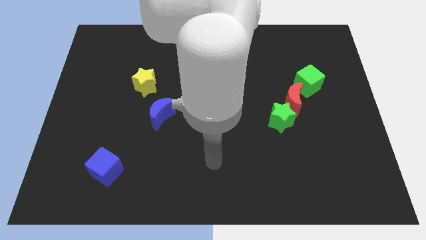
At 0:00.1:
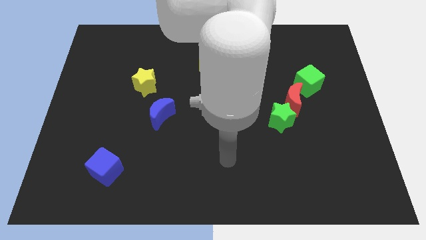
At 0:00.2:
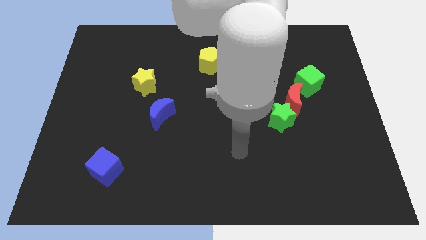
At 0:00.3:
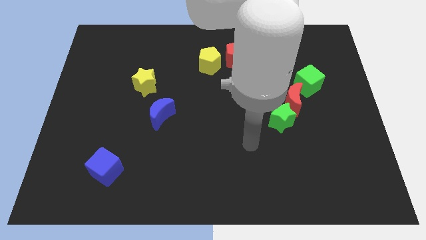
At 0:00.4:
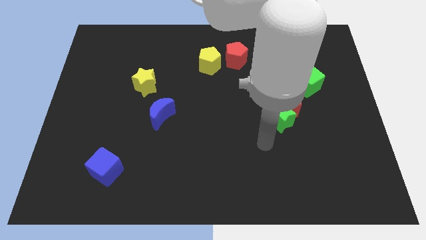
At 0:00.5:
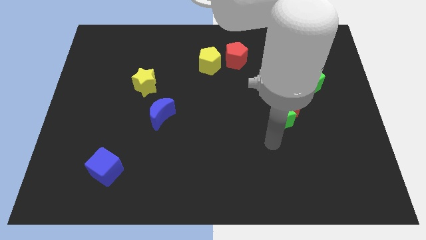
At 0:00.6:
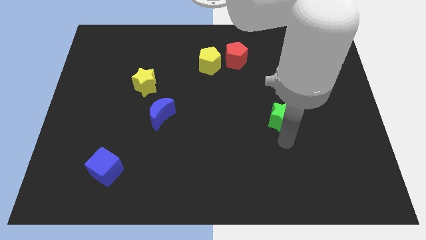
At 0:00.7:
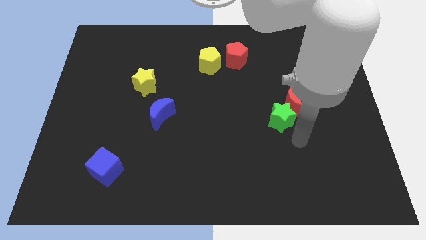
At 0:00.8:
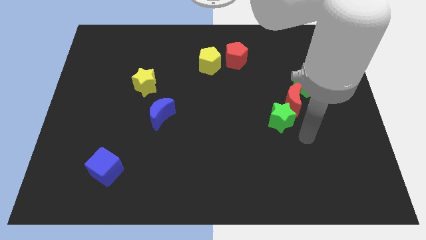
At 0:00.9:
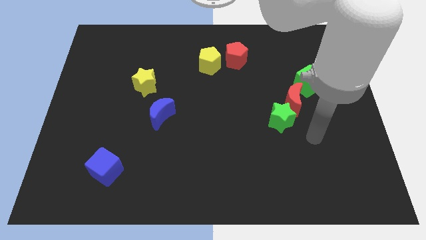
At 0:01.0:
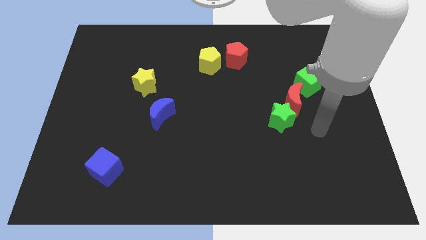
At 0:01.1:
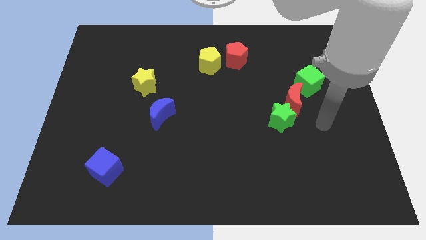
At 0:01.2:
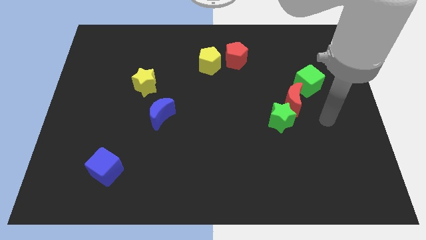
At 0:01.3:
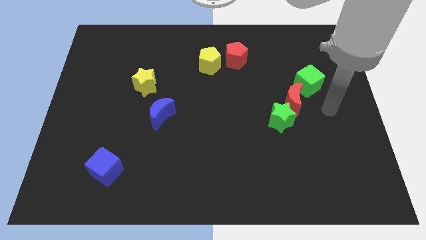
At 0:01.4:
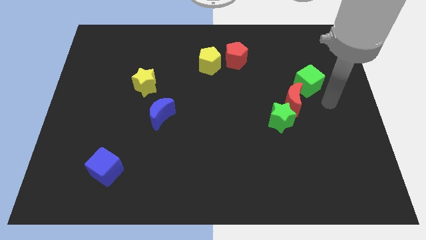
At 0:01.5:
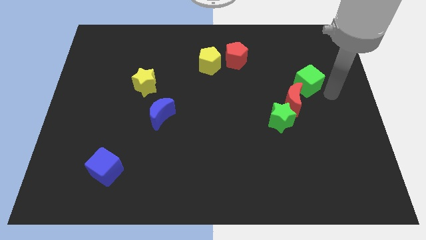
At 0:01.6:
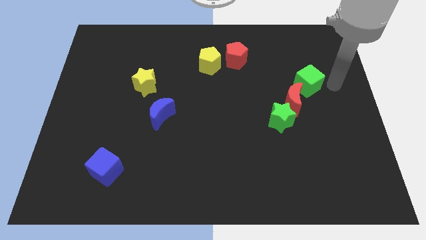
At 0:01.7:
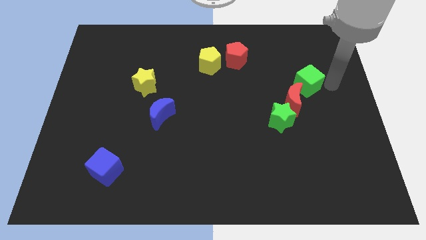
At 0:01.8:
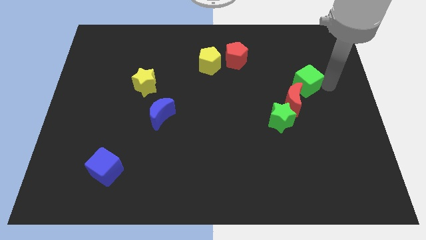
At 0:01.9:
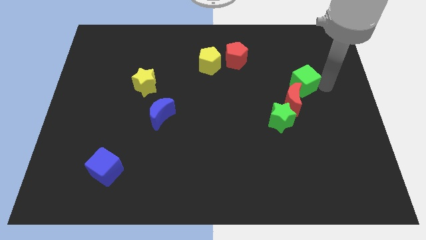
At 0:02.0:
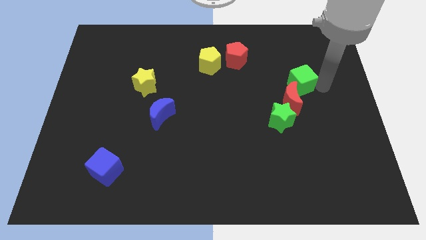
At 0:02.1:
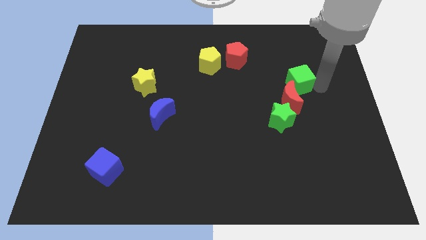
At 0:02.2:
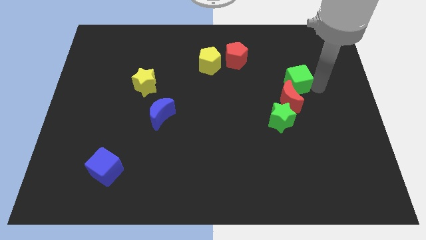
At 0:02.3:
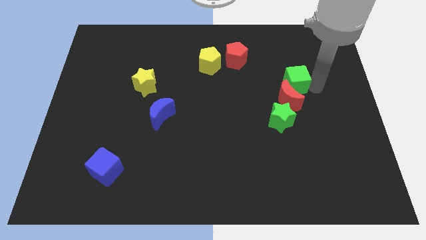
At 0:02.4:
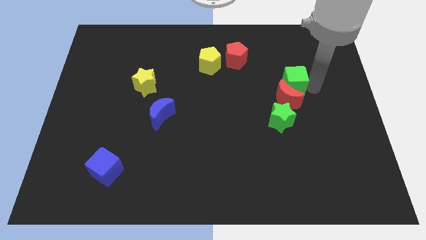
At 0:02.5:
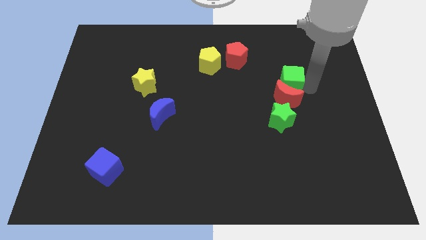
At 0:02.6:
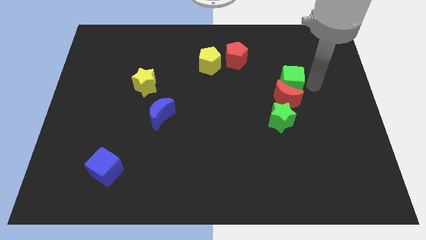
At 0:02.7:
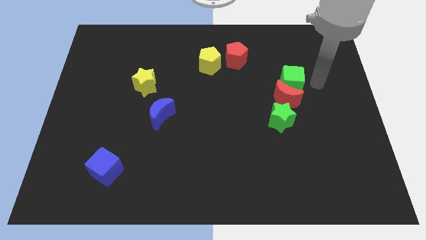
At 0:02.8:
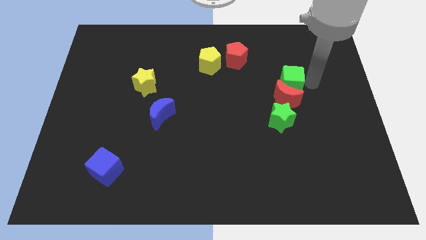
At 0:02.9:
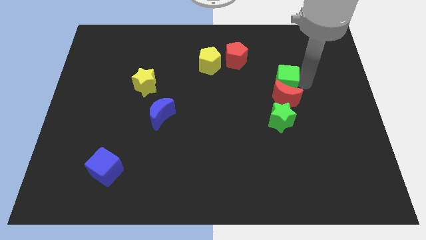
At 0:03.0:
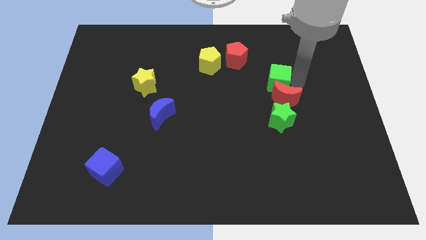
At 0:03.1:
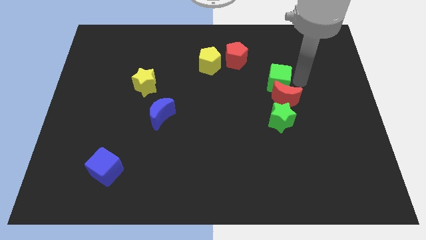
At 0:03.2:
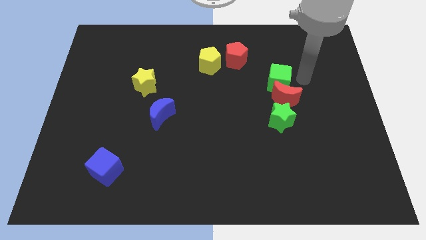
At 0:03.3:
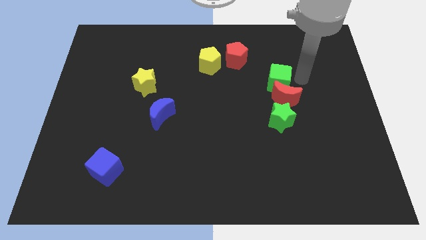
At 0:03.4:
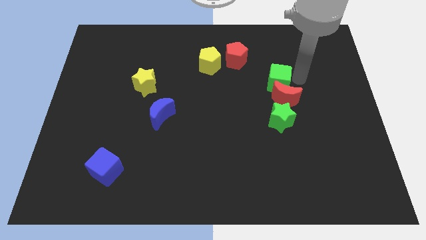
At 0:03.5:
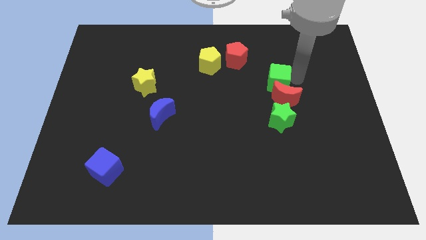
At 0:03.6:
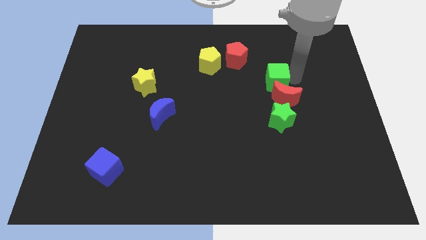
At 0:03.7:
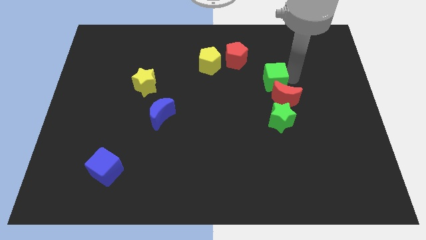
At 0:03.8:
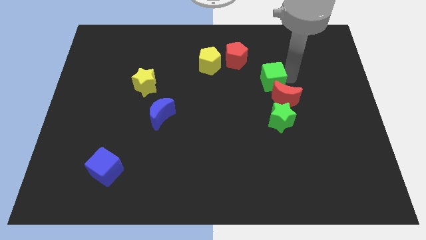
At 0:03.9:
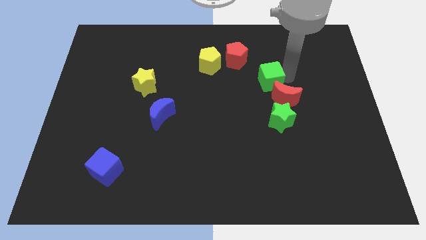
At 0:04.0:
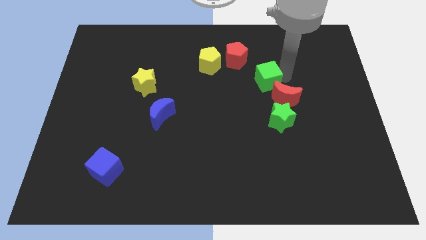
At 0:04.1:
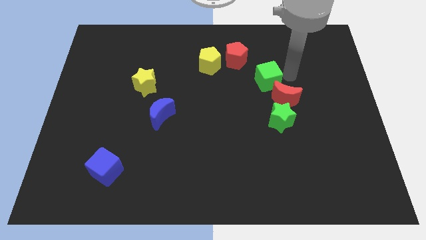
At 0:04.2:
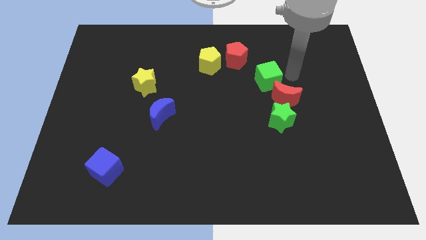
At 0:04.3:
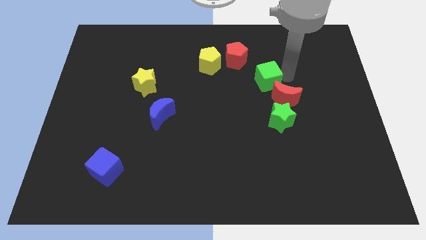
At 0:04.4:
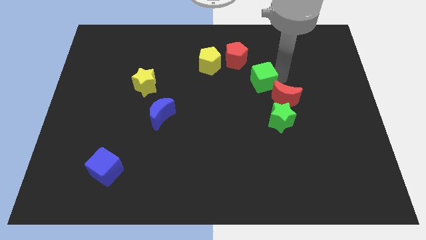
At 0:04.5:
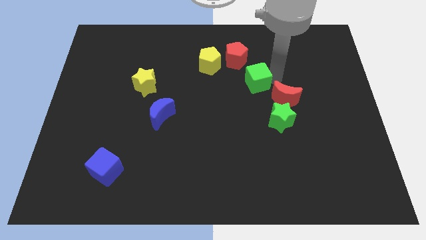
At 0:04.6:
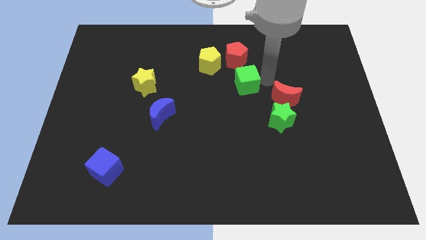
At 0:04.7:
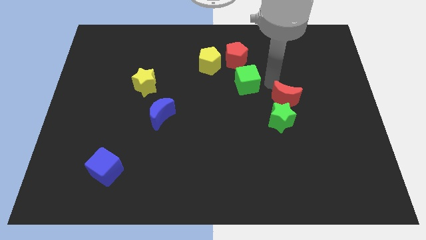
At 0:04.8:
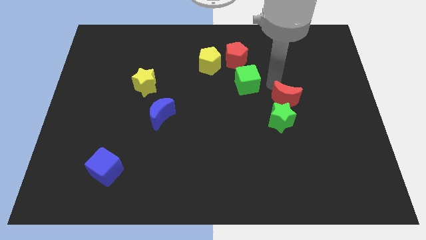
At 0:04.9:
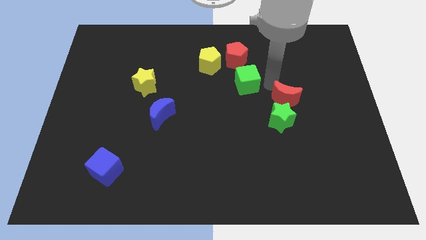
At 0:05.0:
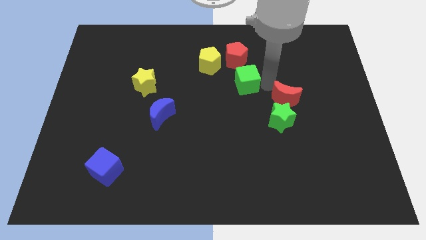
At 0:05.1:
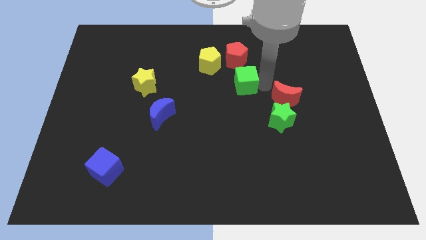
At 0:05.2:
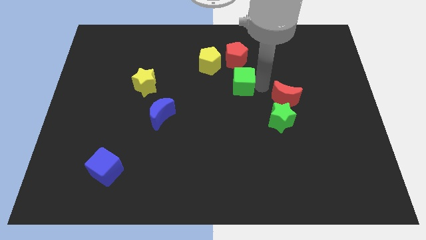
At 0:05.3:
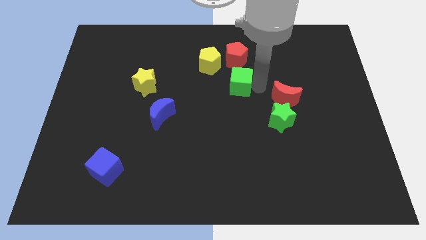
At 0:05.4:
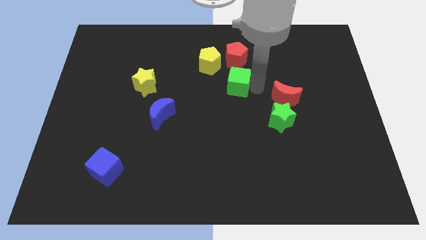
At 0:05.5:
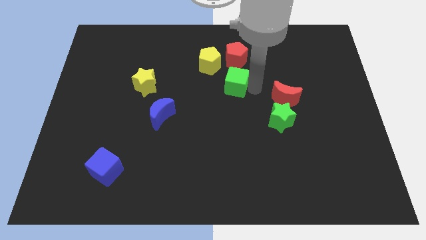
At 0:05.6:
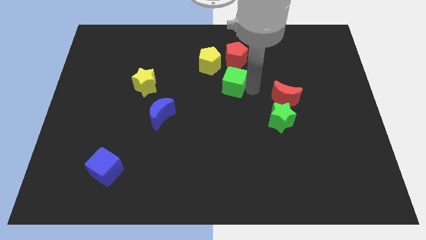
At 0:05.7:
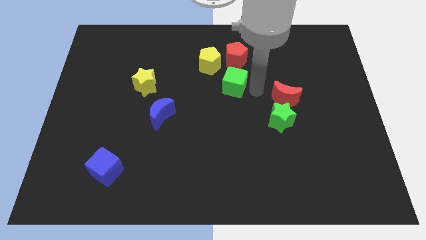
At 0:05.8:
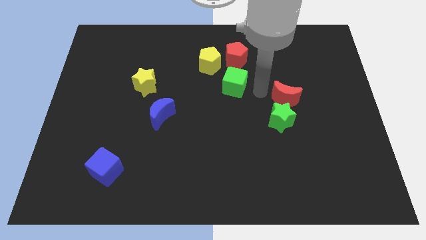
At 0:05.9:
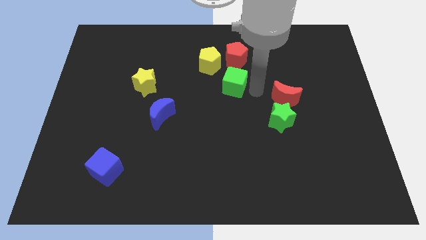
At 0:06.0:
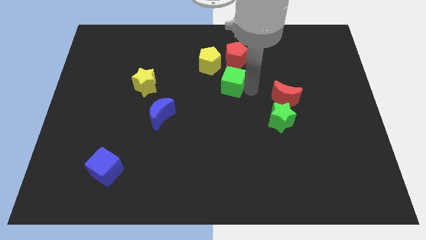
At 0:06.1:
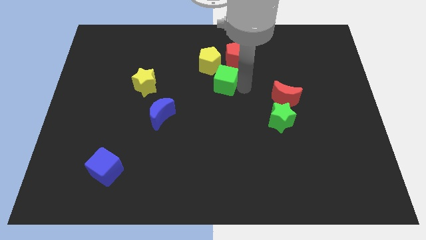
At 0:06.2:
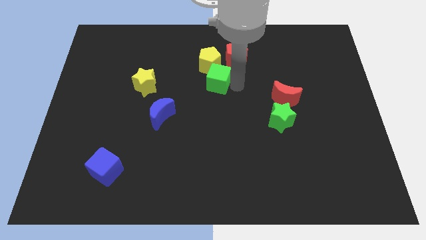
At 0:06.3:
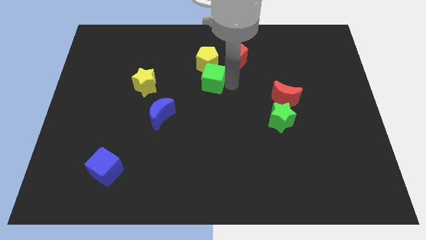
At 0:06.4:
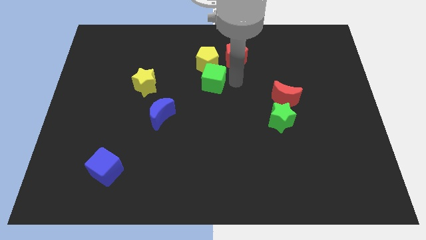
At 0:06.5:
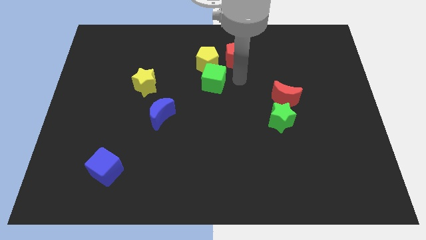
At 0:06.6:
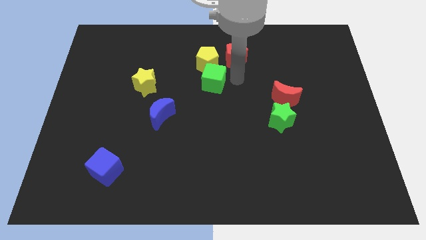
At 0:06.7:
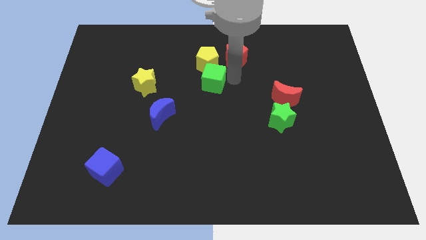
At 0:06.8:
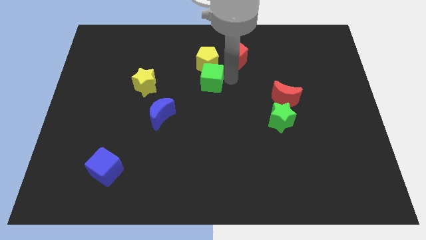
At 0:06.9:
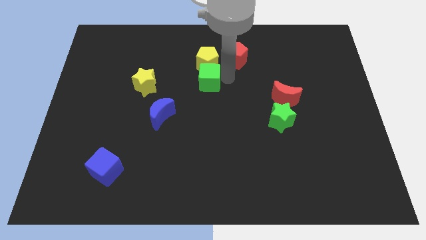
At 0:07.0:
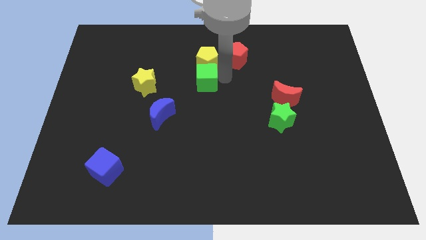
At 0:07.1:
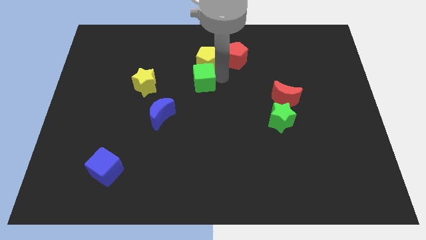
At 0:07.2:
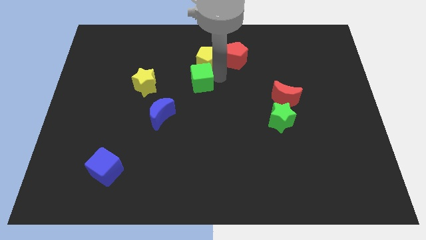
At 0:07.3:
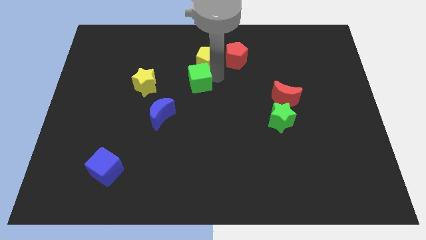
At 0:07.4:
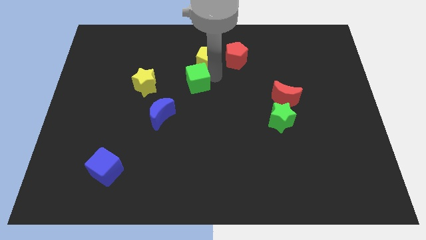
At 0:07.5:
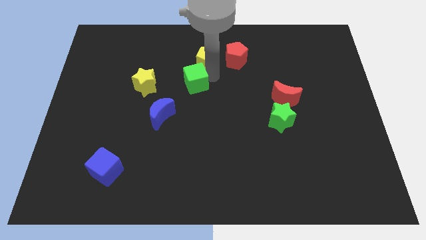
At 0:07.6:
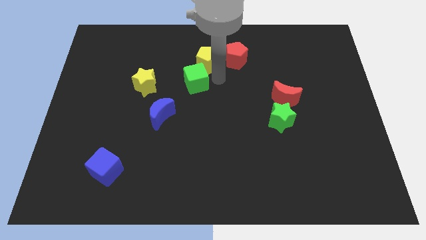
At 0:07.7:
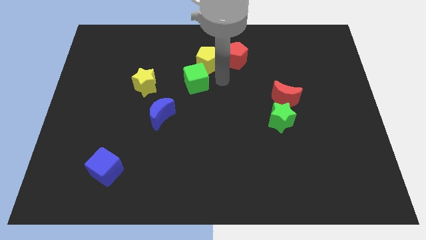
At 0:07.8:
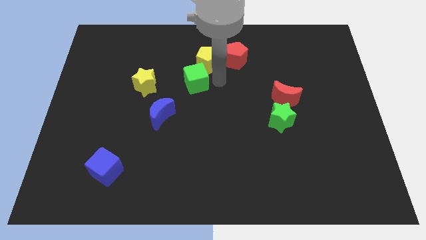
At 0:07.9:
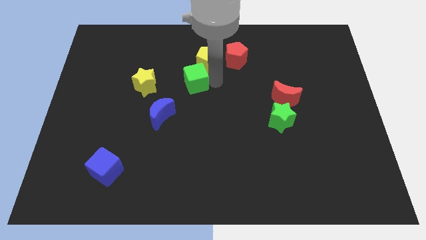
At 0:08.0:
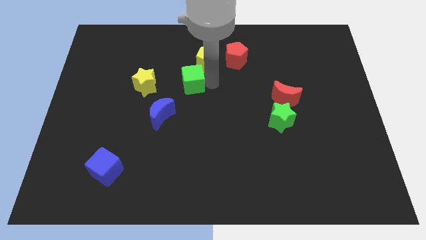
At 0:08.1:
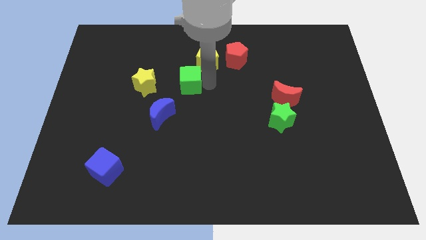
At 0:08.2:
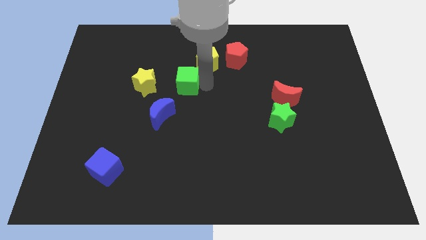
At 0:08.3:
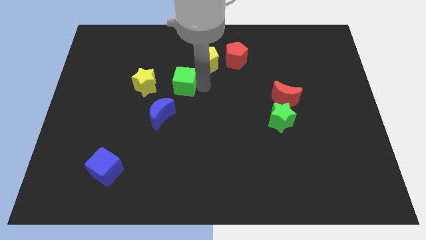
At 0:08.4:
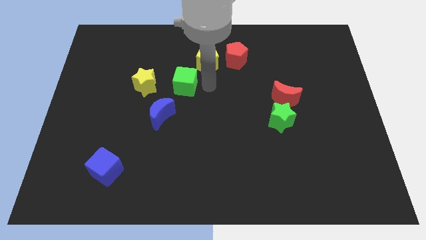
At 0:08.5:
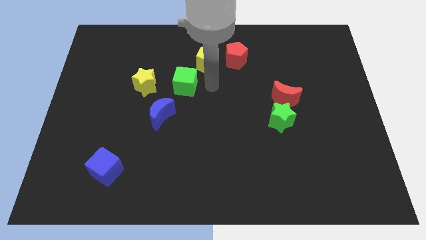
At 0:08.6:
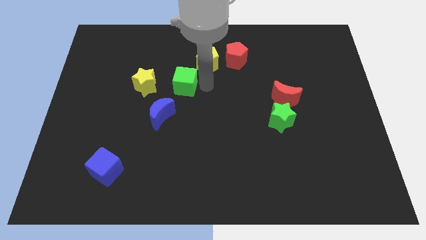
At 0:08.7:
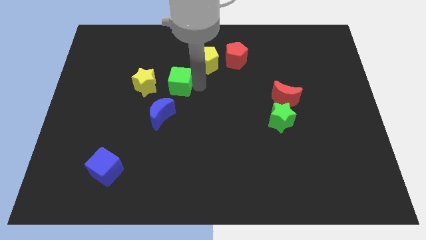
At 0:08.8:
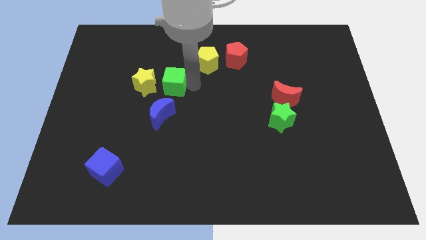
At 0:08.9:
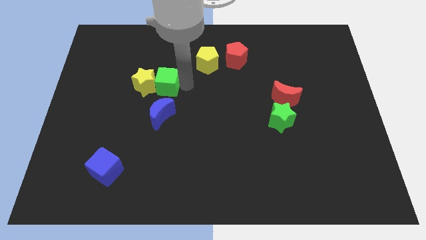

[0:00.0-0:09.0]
put the green cube close to the yellow star
